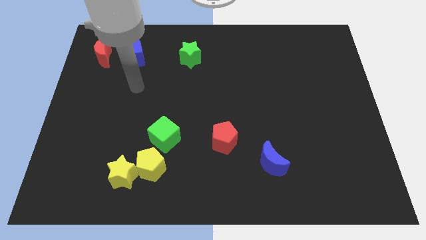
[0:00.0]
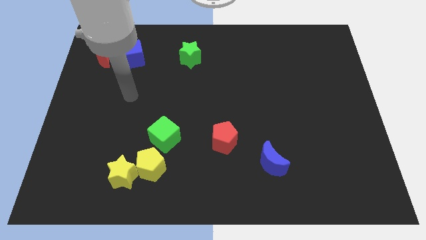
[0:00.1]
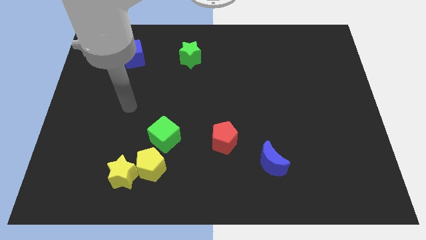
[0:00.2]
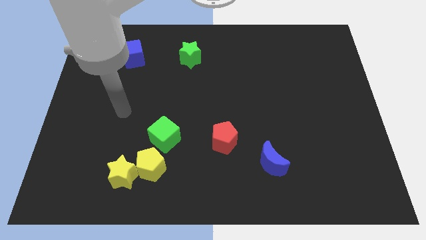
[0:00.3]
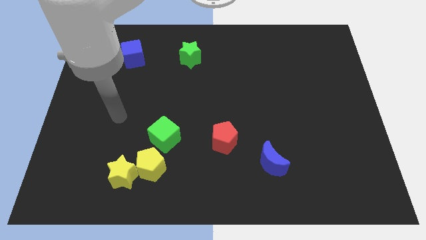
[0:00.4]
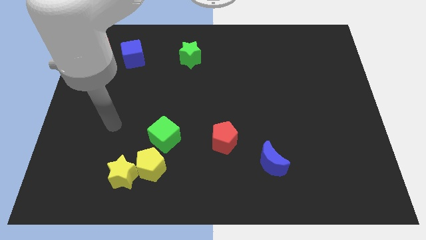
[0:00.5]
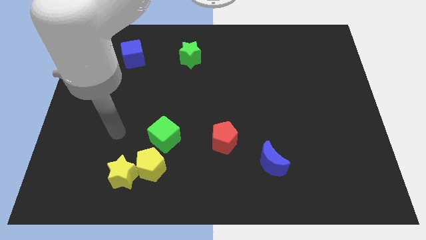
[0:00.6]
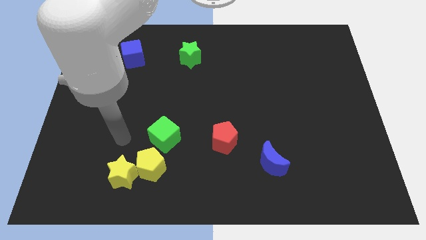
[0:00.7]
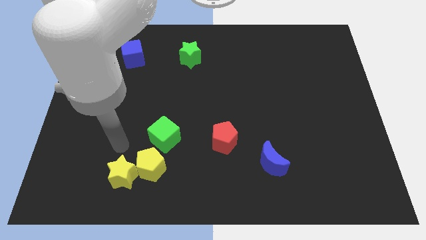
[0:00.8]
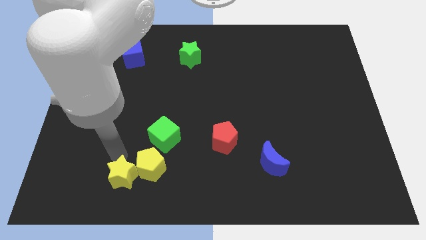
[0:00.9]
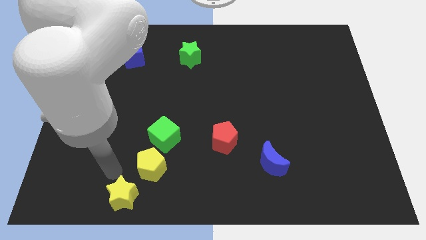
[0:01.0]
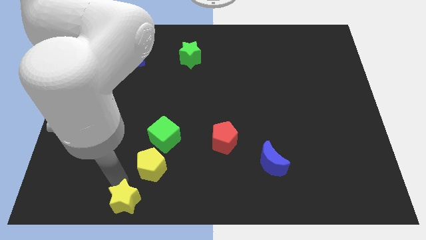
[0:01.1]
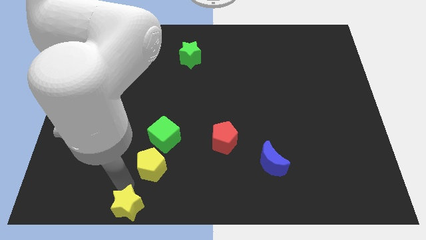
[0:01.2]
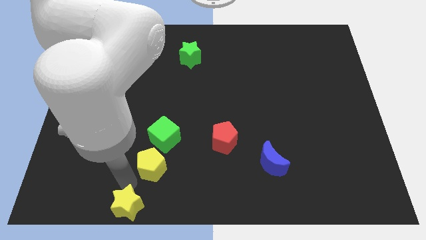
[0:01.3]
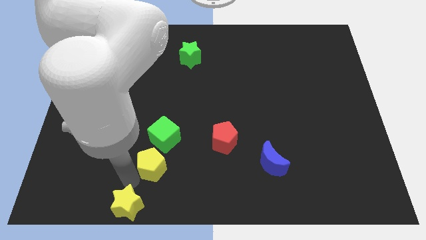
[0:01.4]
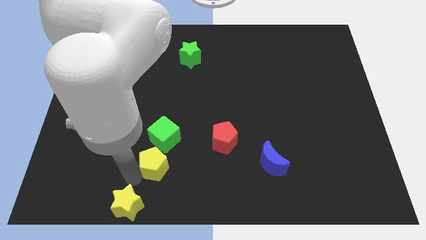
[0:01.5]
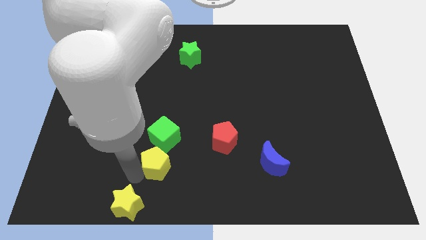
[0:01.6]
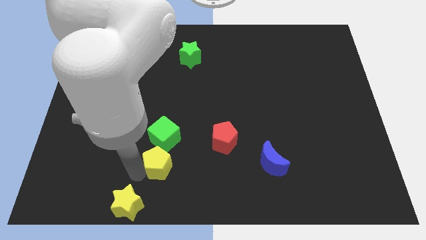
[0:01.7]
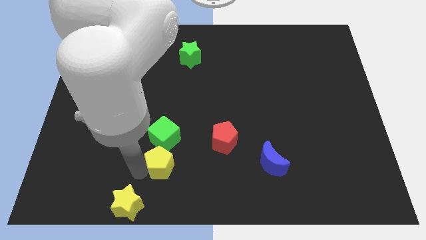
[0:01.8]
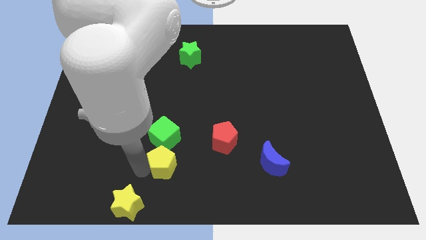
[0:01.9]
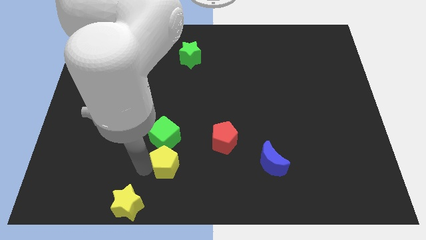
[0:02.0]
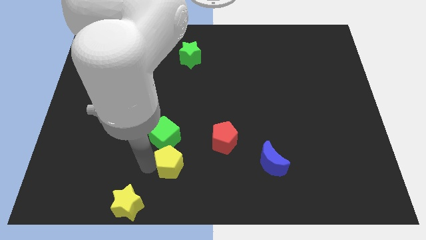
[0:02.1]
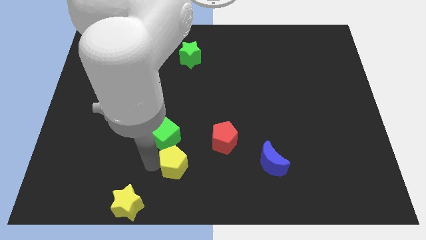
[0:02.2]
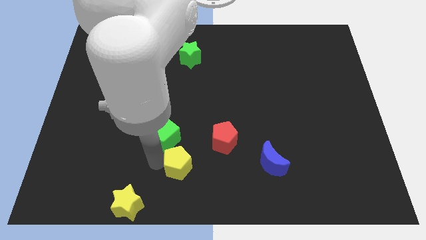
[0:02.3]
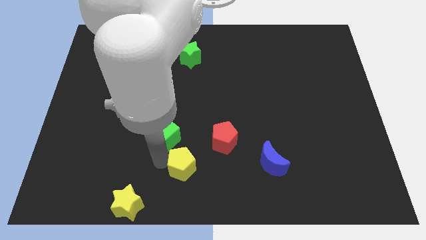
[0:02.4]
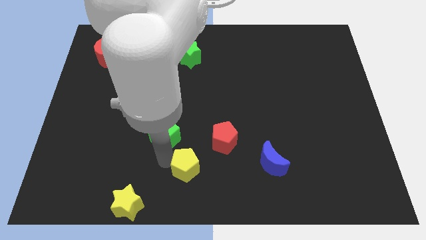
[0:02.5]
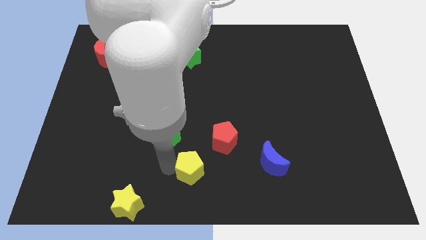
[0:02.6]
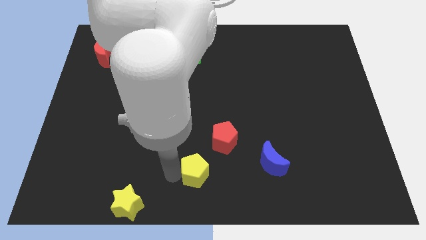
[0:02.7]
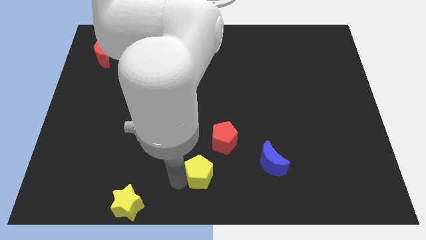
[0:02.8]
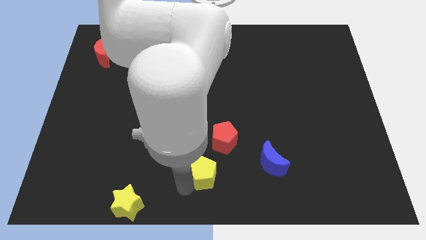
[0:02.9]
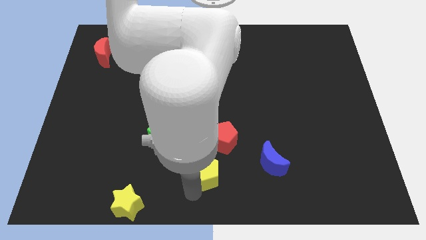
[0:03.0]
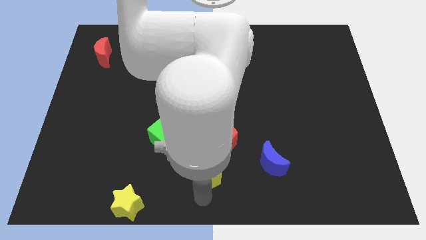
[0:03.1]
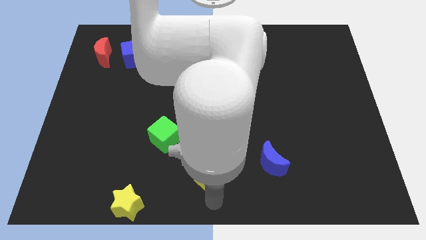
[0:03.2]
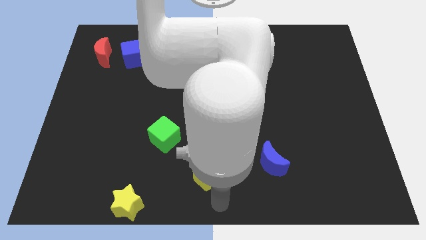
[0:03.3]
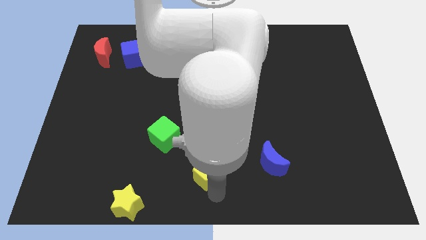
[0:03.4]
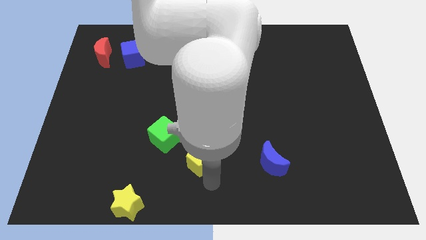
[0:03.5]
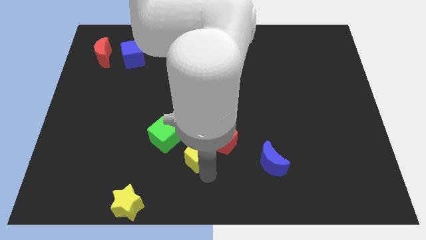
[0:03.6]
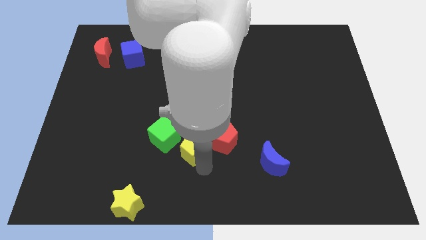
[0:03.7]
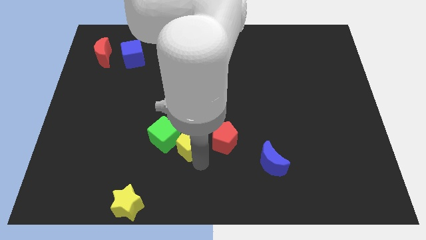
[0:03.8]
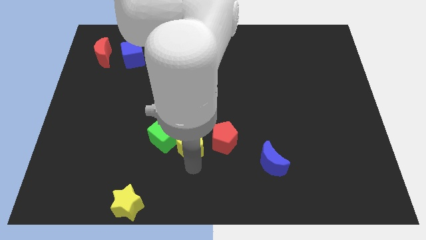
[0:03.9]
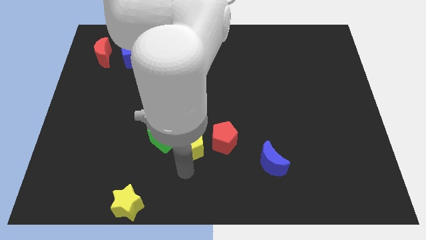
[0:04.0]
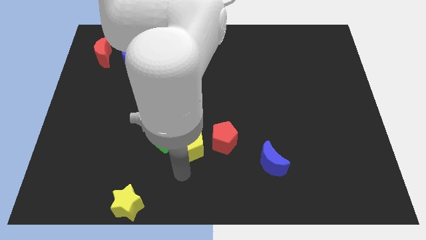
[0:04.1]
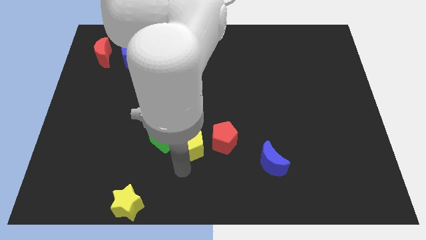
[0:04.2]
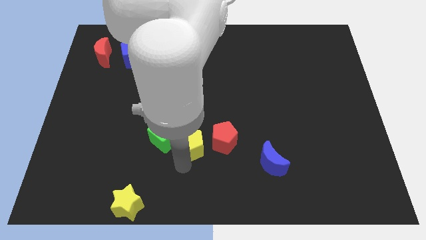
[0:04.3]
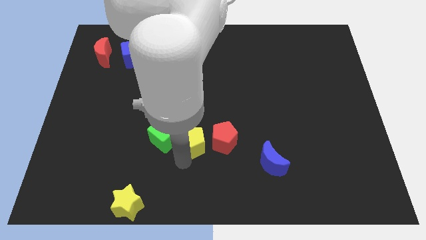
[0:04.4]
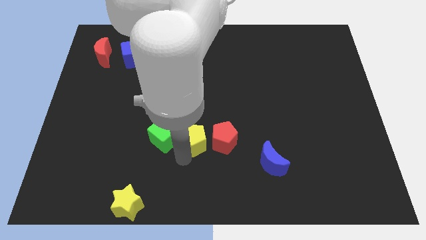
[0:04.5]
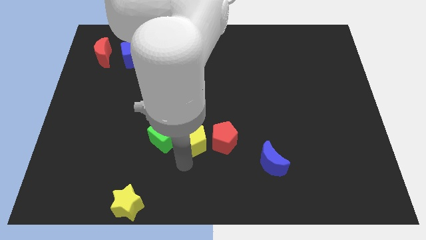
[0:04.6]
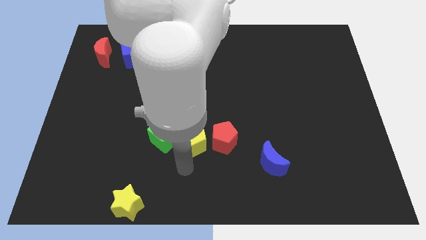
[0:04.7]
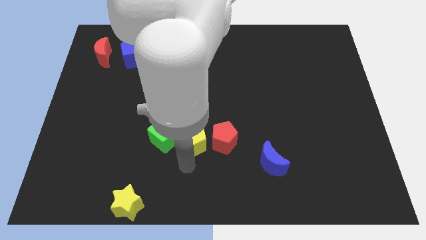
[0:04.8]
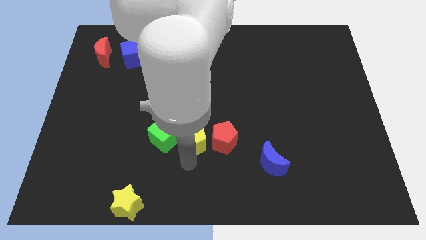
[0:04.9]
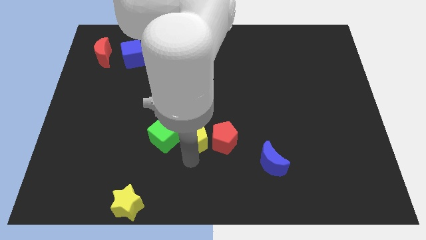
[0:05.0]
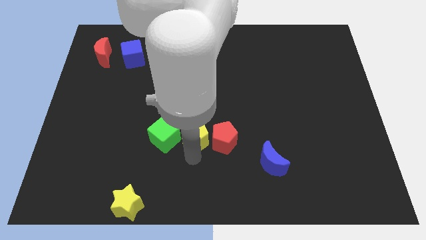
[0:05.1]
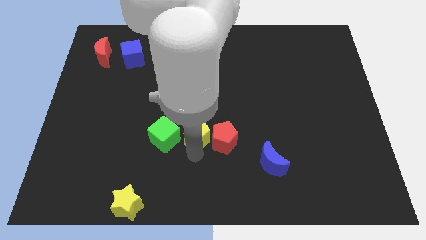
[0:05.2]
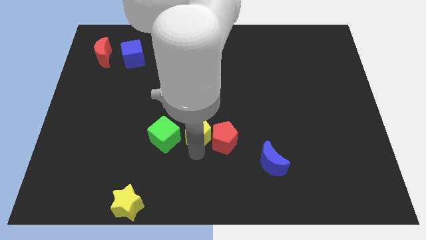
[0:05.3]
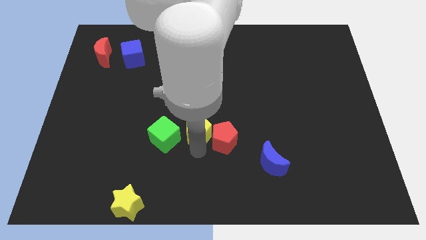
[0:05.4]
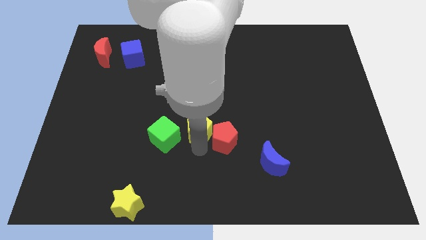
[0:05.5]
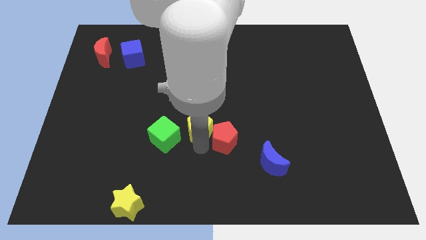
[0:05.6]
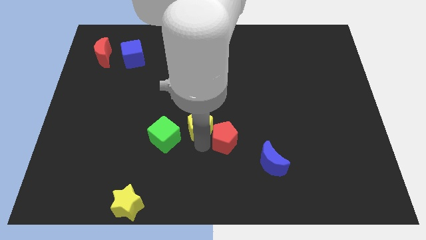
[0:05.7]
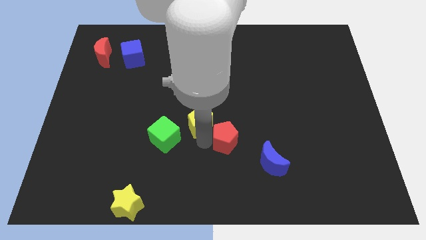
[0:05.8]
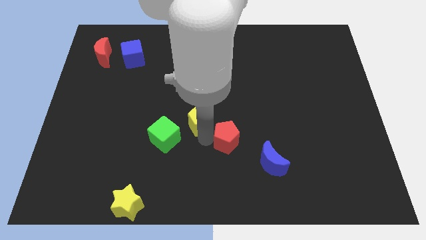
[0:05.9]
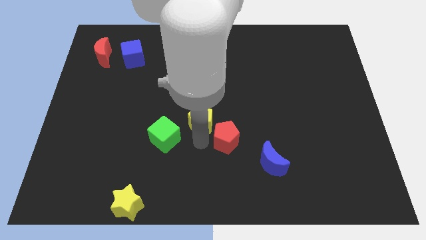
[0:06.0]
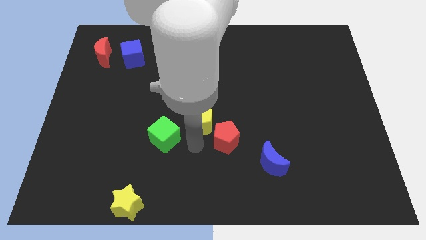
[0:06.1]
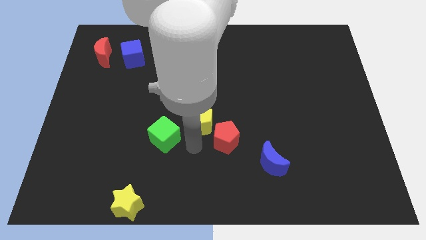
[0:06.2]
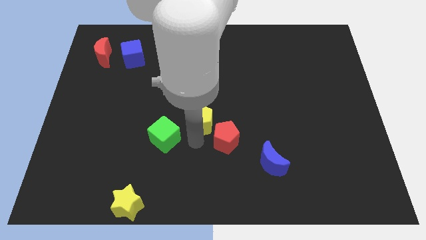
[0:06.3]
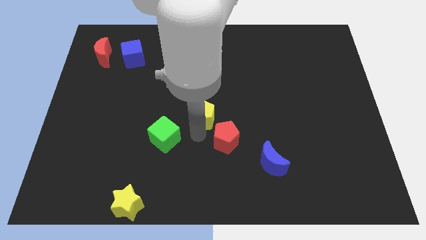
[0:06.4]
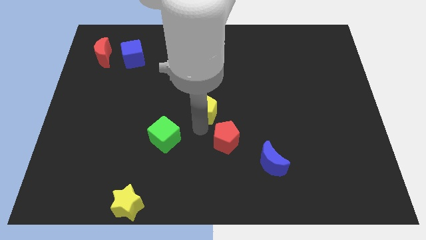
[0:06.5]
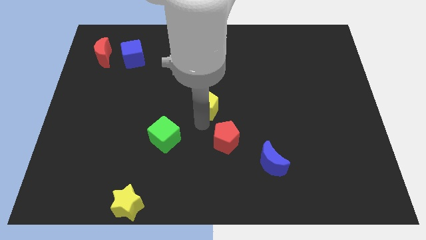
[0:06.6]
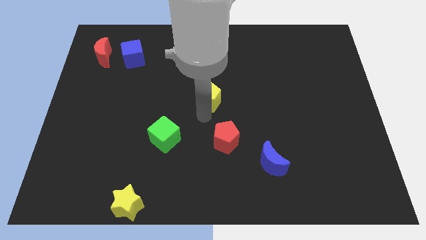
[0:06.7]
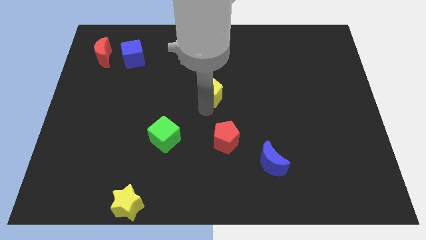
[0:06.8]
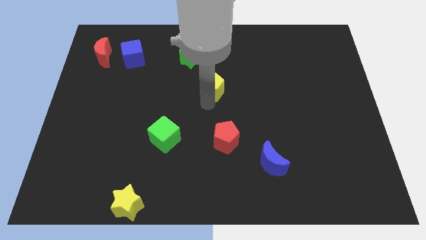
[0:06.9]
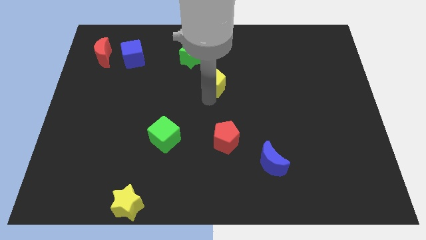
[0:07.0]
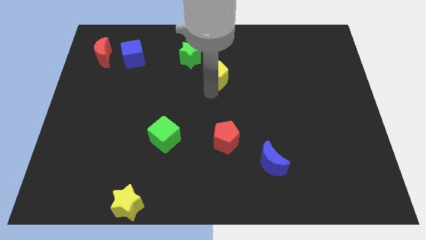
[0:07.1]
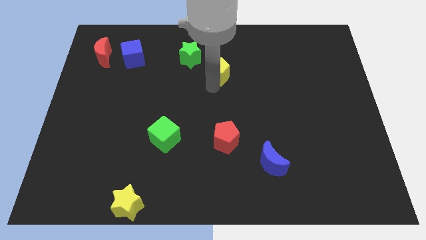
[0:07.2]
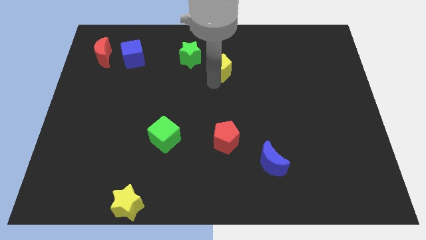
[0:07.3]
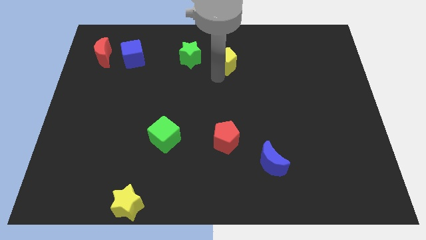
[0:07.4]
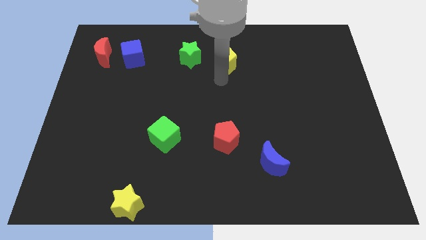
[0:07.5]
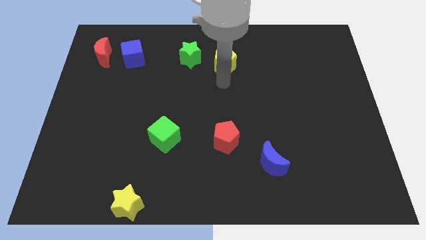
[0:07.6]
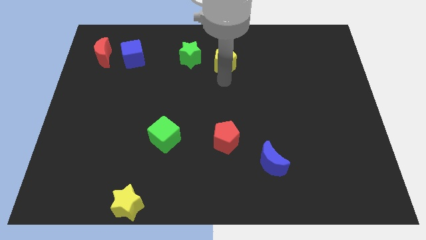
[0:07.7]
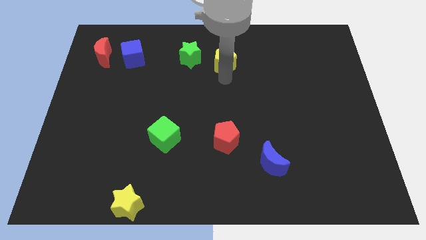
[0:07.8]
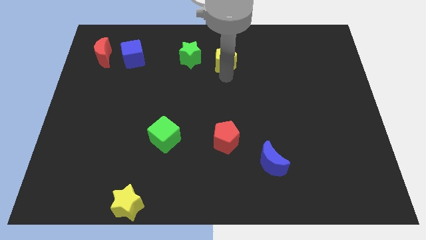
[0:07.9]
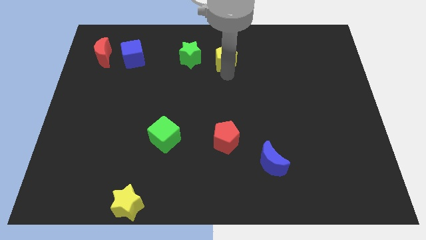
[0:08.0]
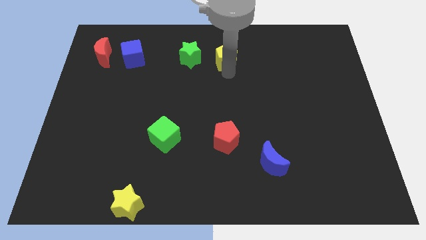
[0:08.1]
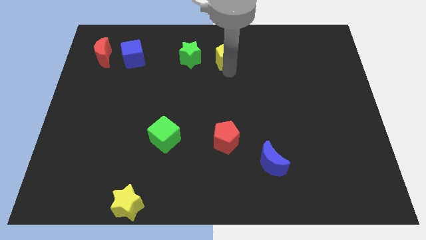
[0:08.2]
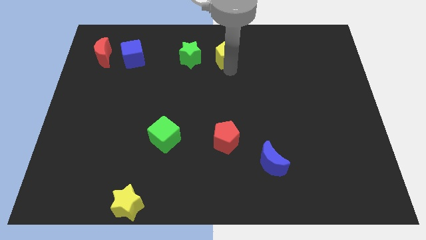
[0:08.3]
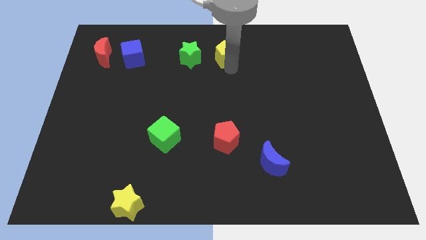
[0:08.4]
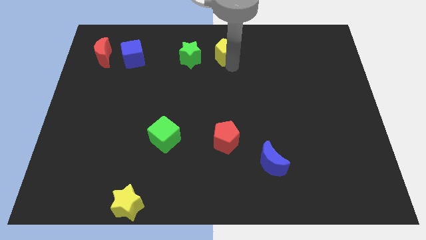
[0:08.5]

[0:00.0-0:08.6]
slide the yellow pentagon to the towards your base
